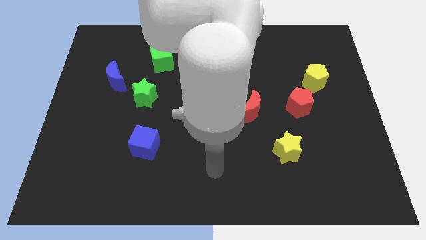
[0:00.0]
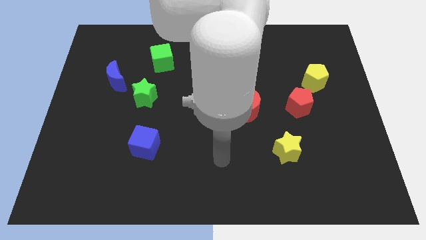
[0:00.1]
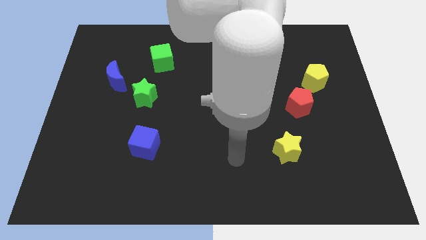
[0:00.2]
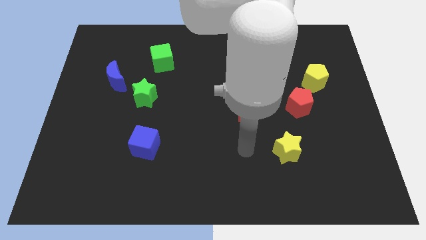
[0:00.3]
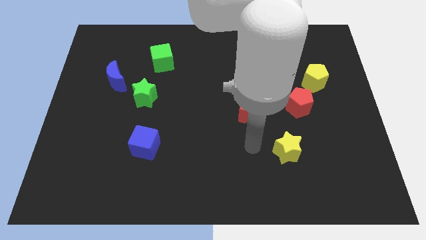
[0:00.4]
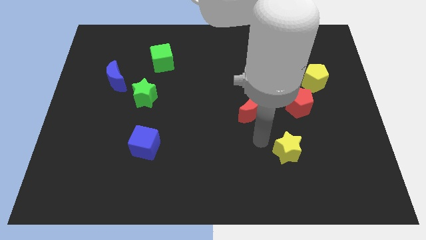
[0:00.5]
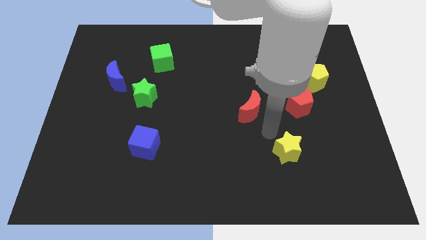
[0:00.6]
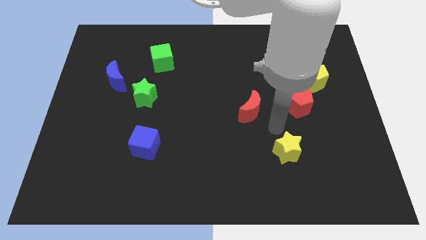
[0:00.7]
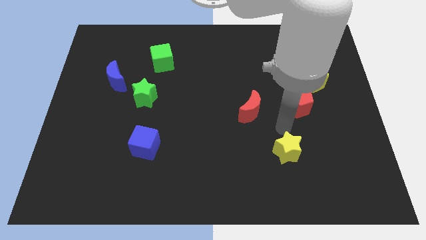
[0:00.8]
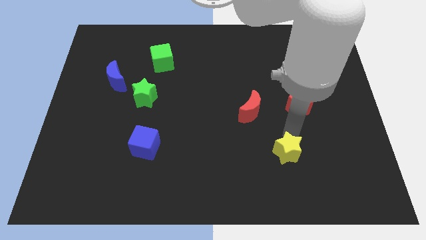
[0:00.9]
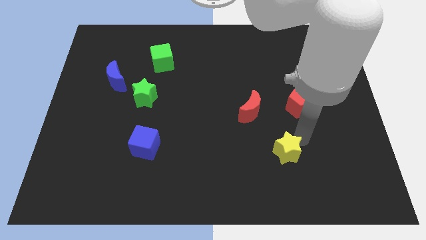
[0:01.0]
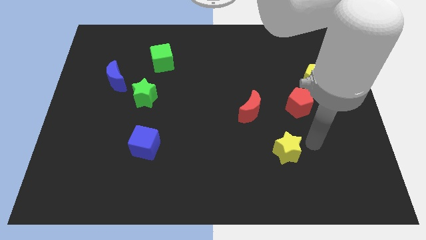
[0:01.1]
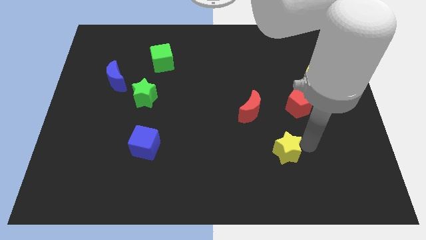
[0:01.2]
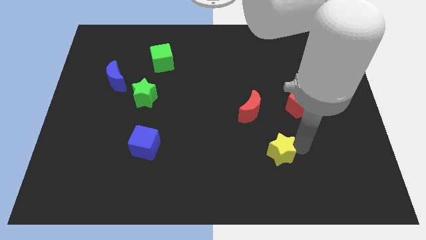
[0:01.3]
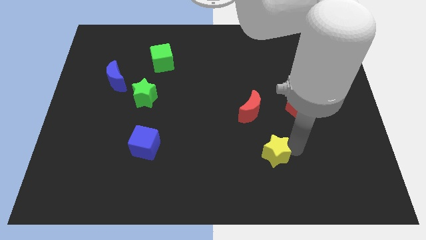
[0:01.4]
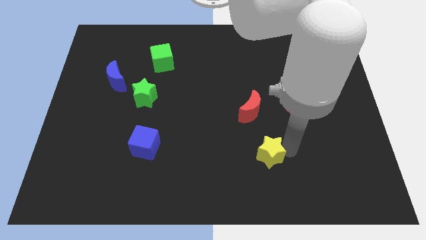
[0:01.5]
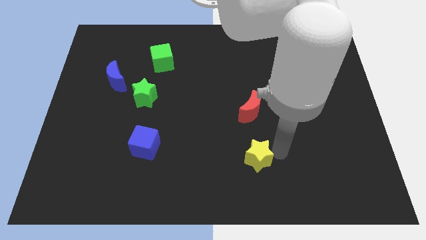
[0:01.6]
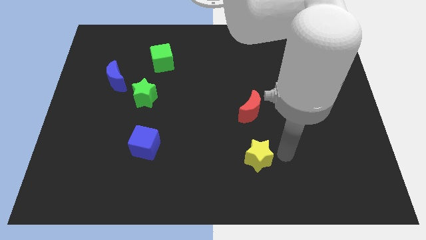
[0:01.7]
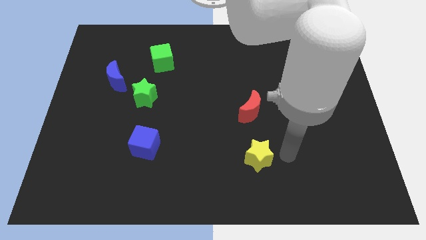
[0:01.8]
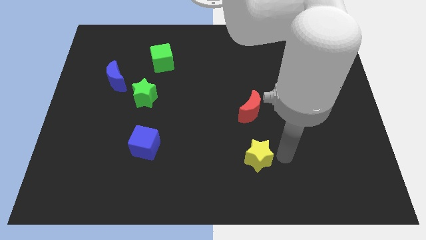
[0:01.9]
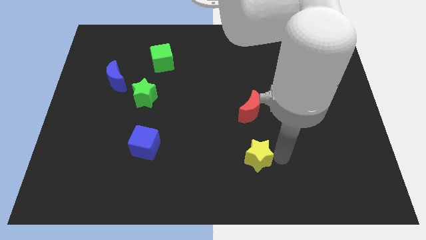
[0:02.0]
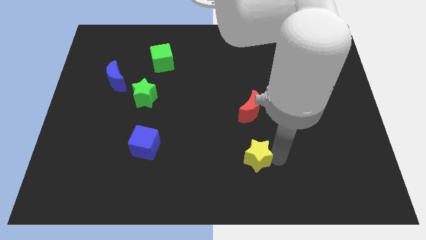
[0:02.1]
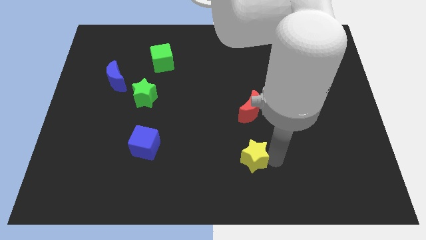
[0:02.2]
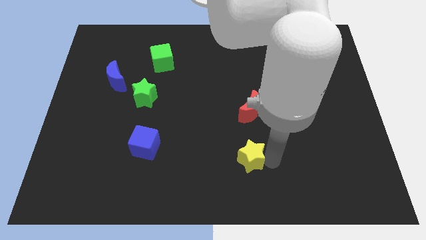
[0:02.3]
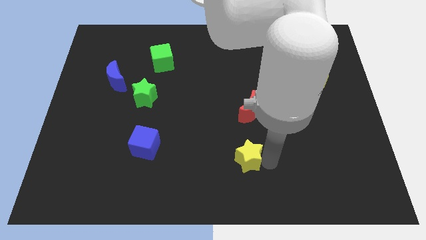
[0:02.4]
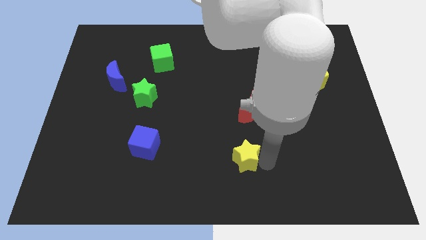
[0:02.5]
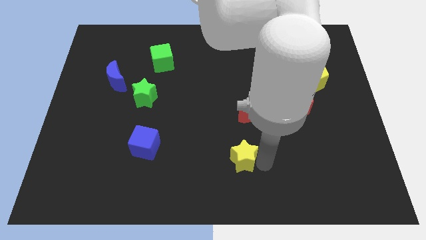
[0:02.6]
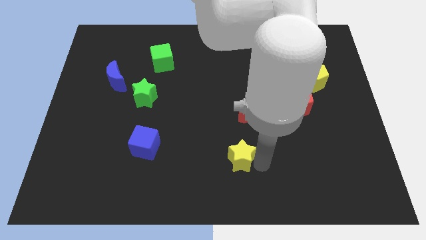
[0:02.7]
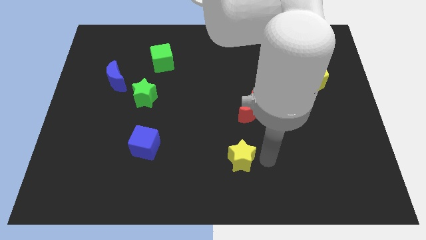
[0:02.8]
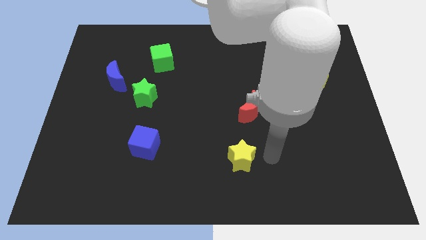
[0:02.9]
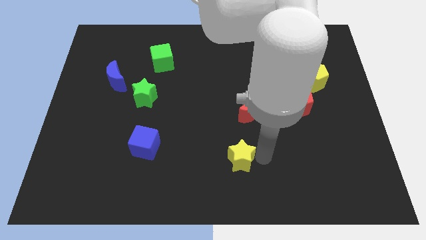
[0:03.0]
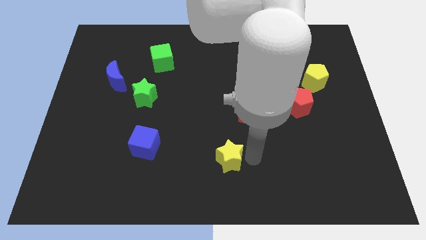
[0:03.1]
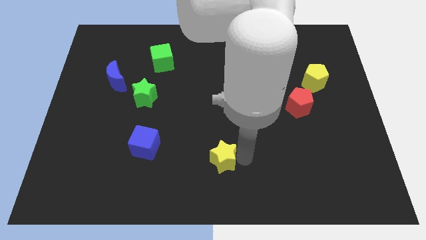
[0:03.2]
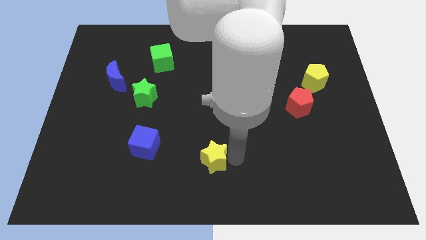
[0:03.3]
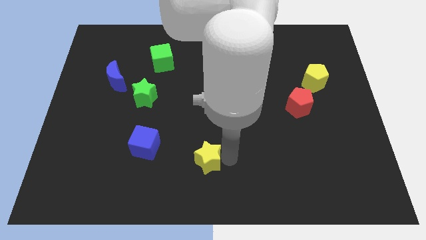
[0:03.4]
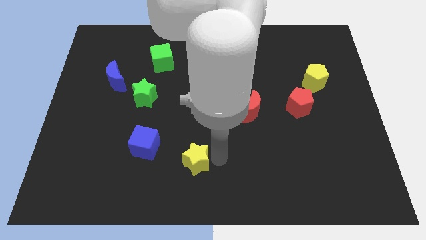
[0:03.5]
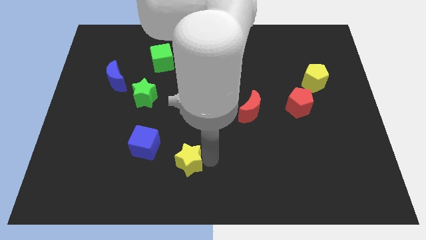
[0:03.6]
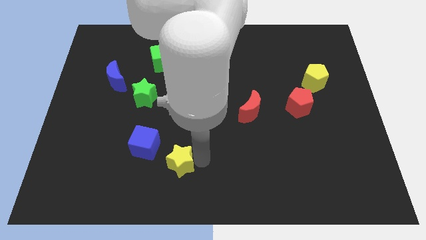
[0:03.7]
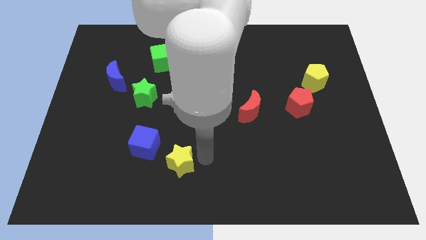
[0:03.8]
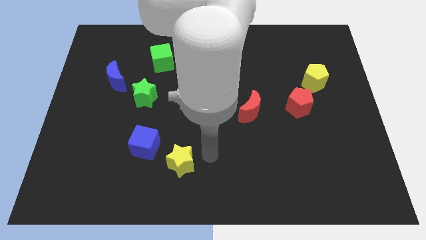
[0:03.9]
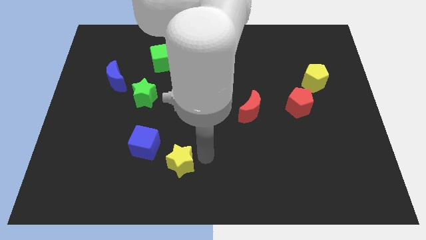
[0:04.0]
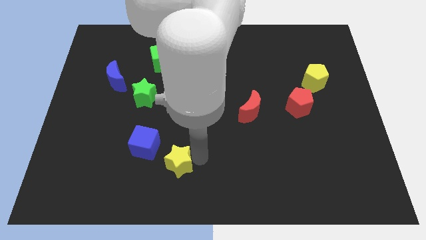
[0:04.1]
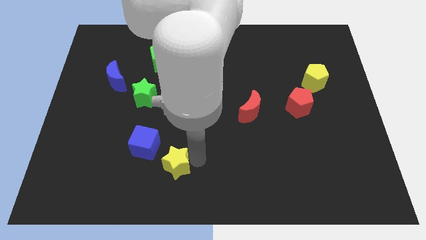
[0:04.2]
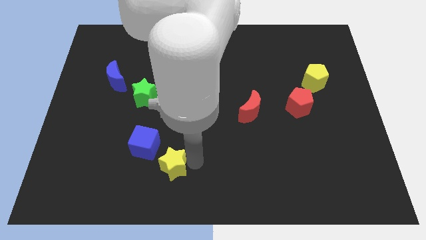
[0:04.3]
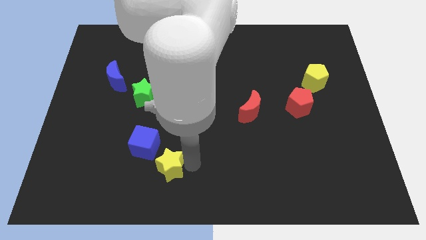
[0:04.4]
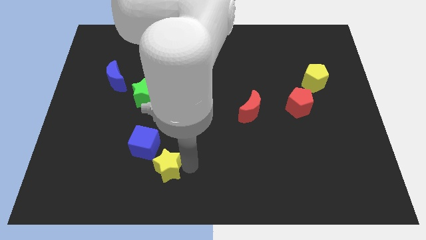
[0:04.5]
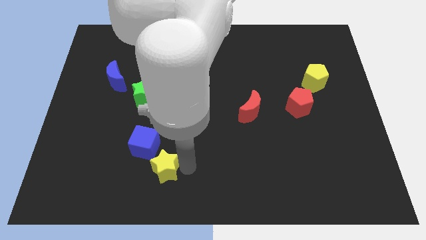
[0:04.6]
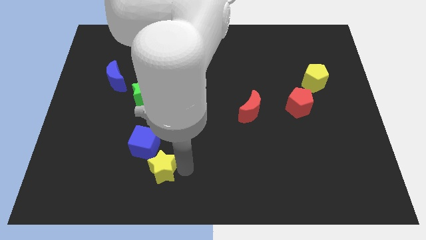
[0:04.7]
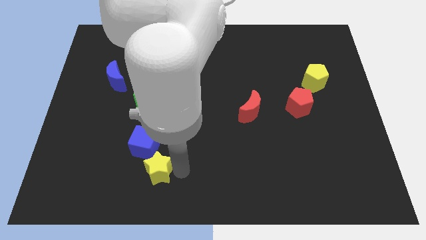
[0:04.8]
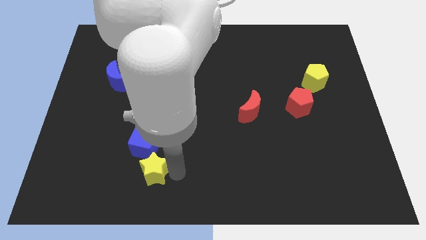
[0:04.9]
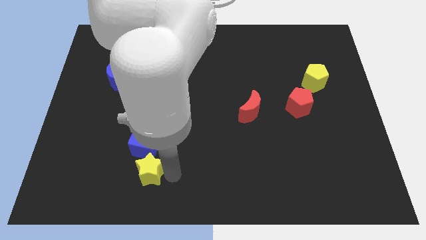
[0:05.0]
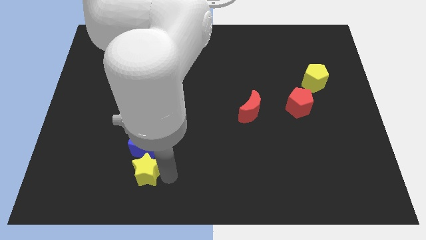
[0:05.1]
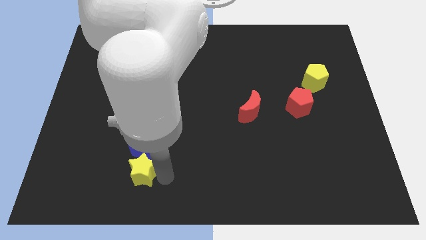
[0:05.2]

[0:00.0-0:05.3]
slide the yellow star to the bottom left side of the blue cube
